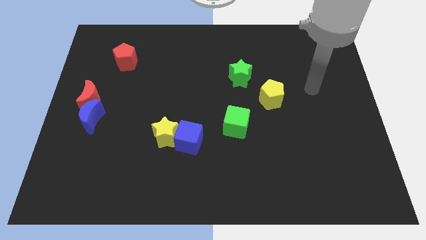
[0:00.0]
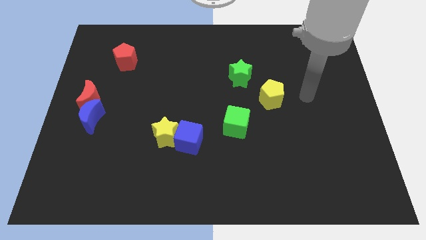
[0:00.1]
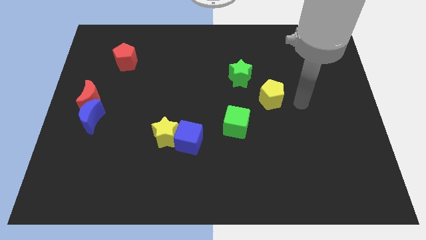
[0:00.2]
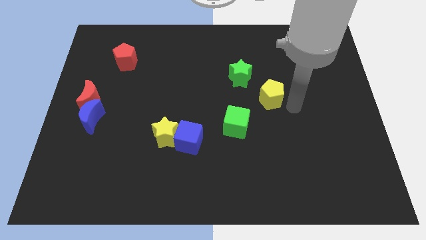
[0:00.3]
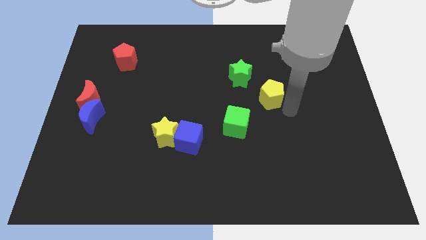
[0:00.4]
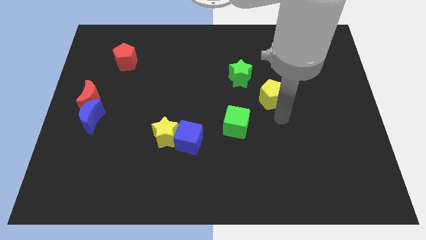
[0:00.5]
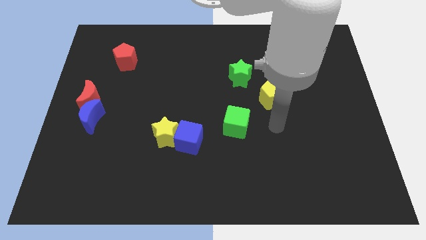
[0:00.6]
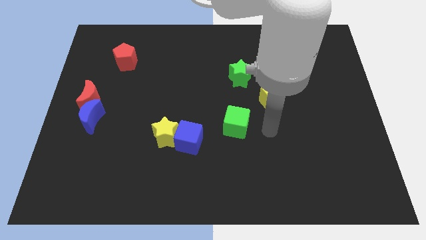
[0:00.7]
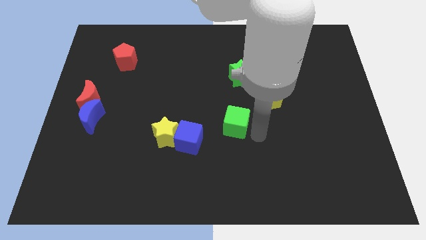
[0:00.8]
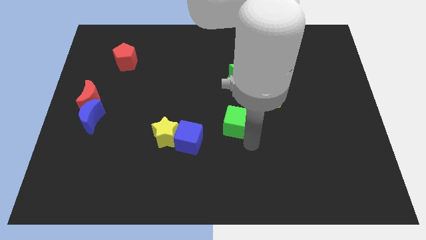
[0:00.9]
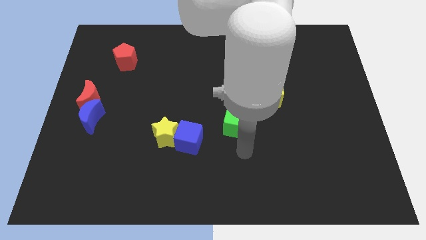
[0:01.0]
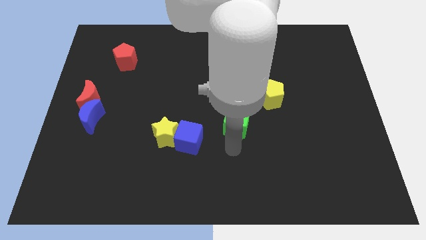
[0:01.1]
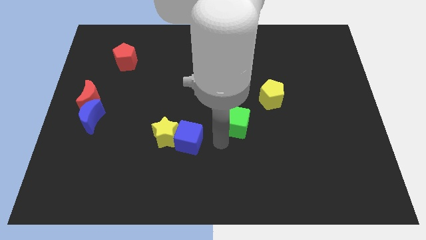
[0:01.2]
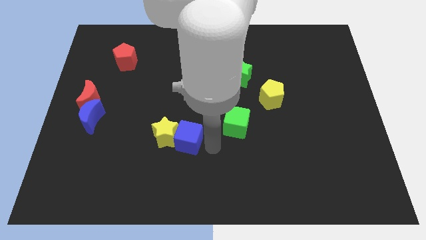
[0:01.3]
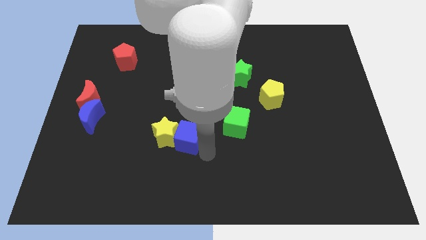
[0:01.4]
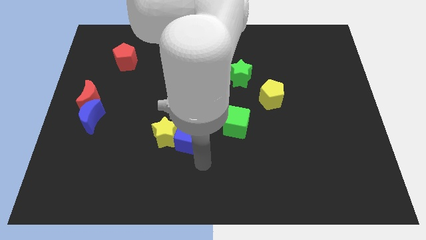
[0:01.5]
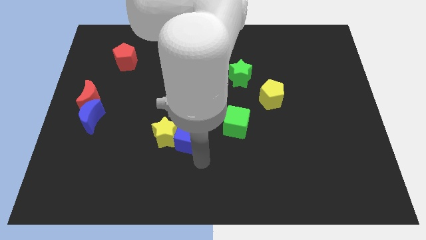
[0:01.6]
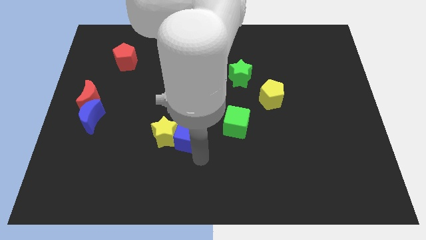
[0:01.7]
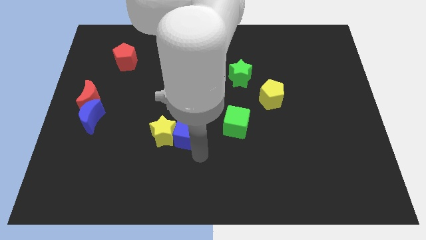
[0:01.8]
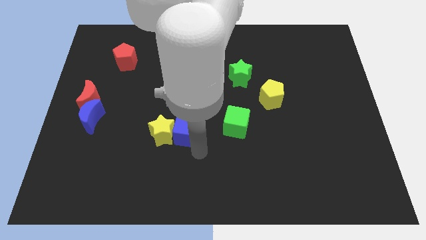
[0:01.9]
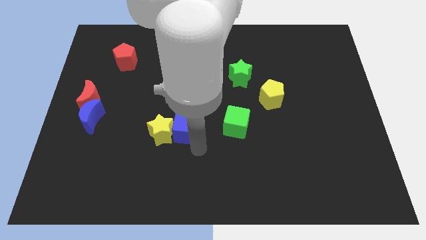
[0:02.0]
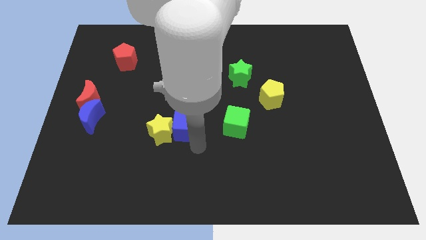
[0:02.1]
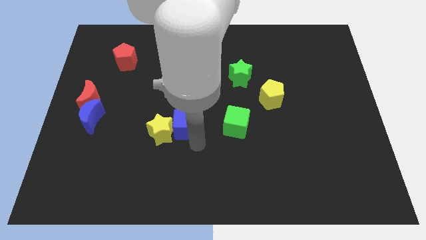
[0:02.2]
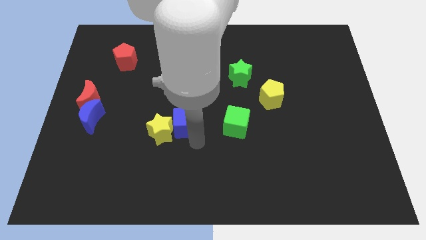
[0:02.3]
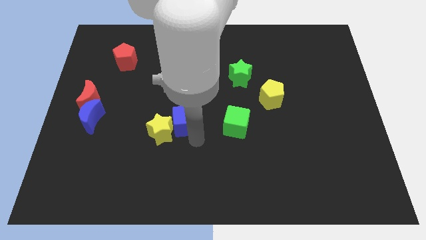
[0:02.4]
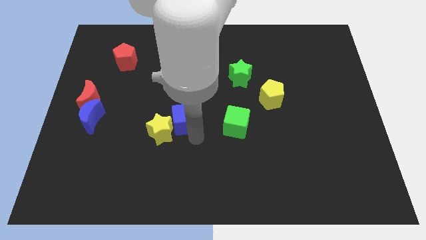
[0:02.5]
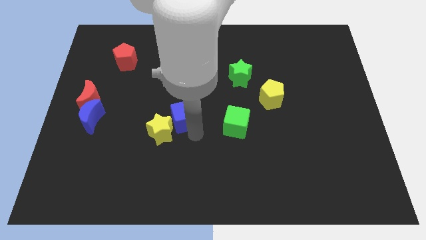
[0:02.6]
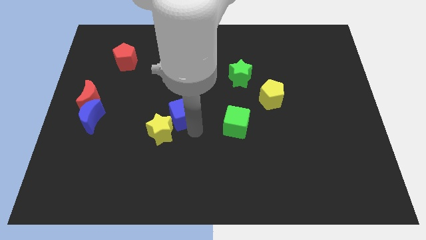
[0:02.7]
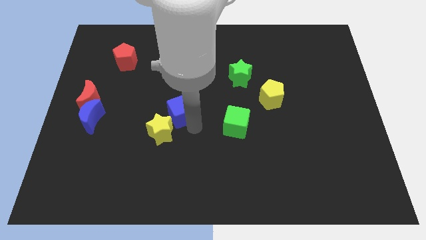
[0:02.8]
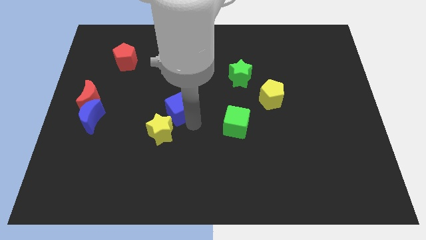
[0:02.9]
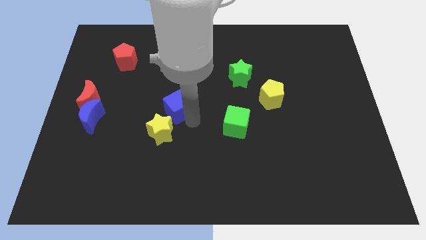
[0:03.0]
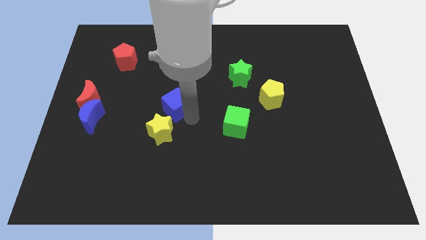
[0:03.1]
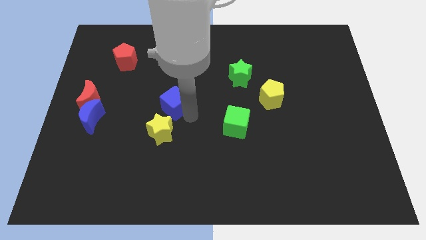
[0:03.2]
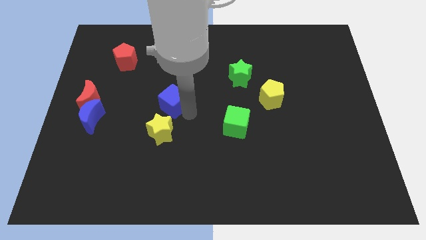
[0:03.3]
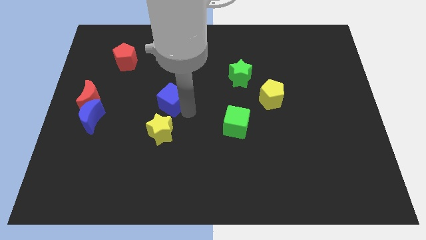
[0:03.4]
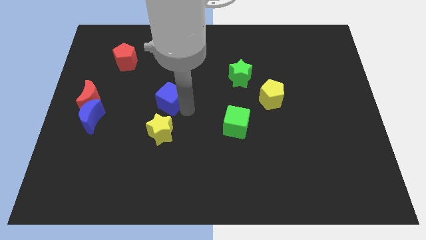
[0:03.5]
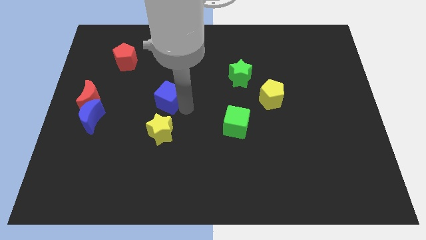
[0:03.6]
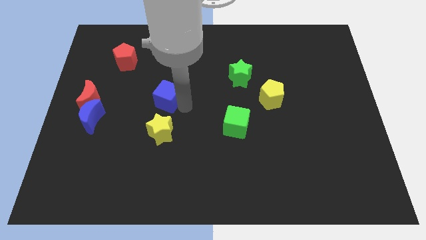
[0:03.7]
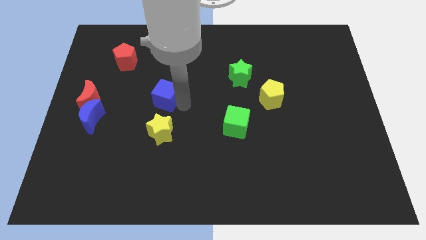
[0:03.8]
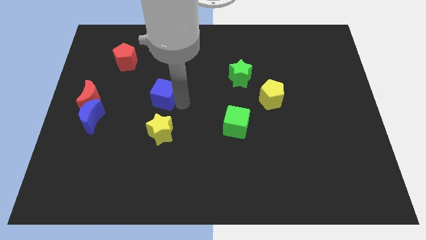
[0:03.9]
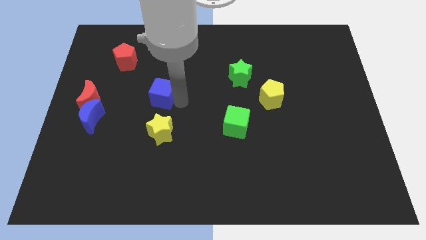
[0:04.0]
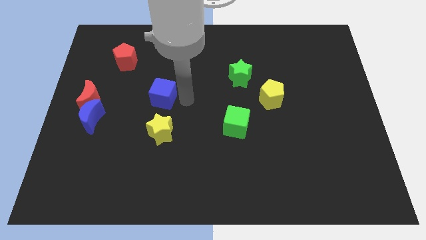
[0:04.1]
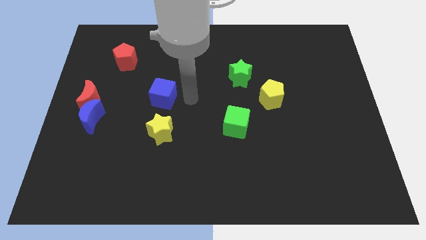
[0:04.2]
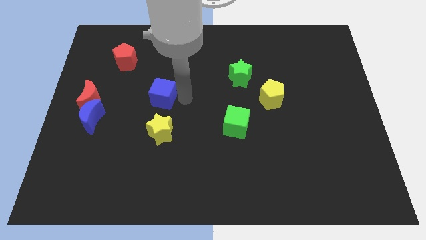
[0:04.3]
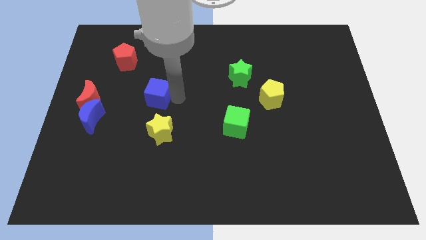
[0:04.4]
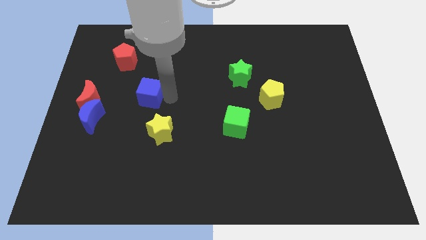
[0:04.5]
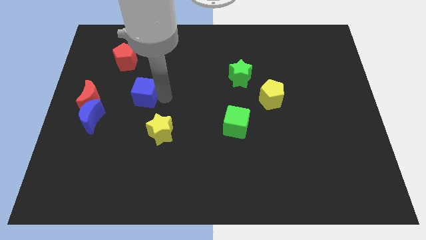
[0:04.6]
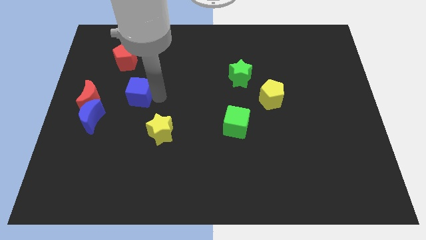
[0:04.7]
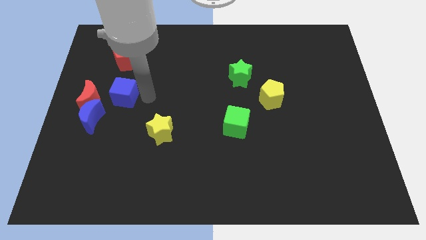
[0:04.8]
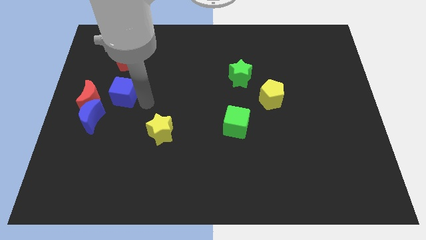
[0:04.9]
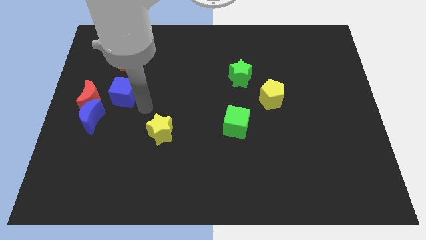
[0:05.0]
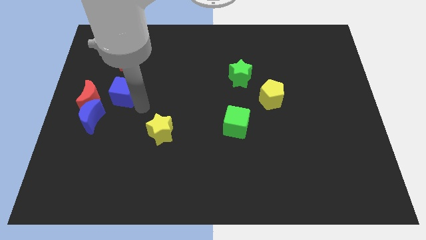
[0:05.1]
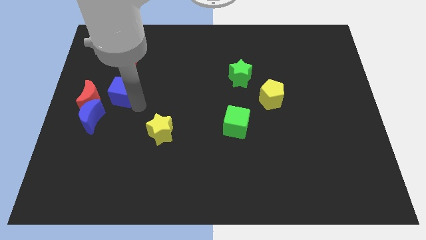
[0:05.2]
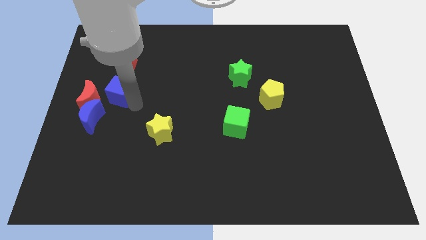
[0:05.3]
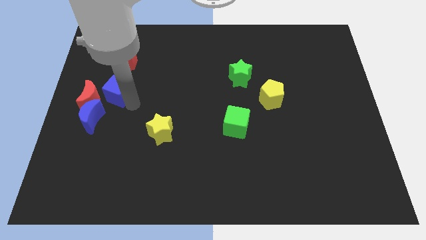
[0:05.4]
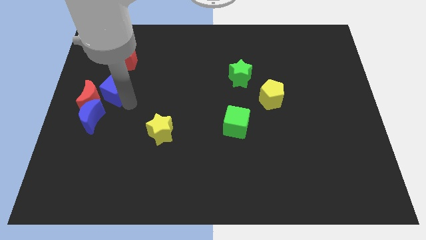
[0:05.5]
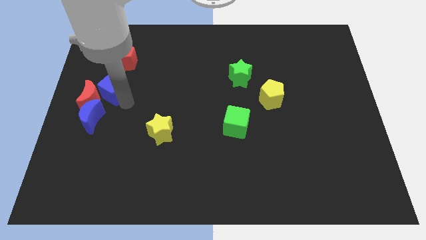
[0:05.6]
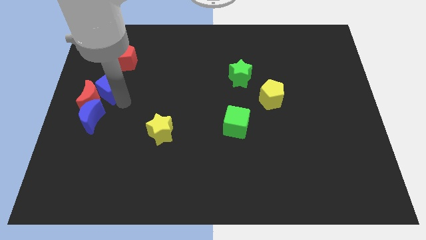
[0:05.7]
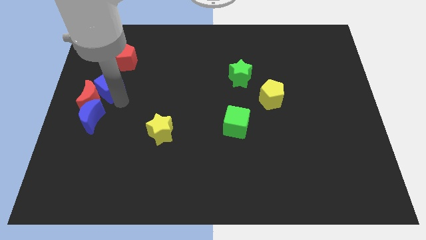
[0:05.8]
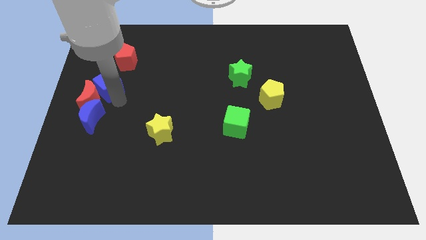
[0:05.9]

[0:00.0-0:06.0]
move the blue cube to the left side of the board
